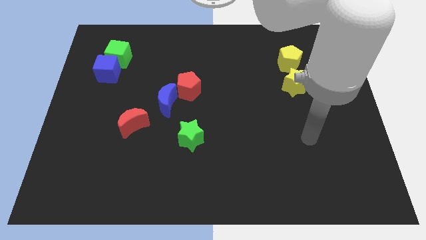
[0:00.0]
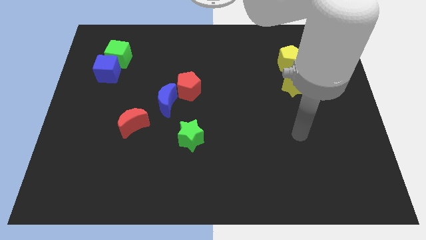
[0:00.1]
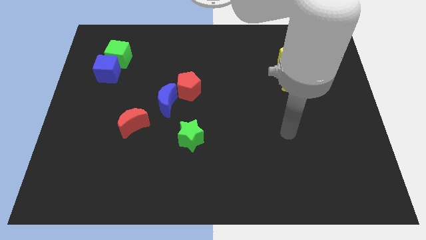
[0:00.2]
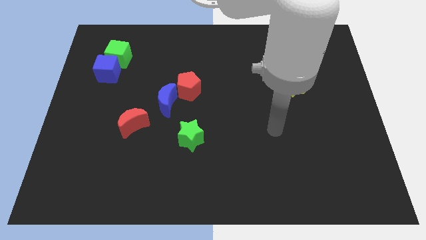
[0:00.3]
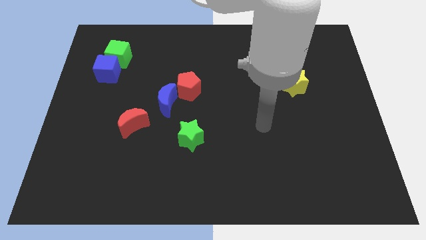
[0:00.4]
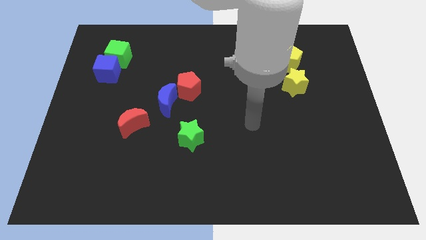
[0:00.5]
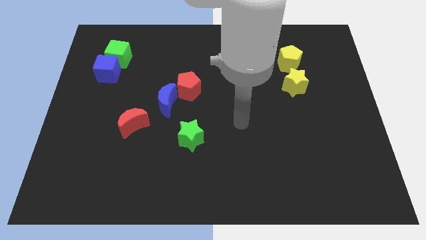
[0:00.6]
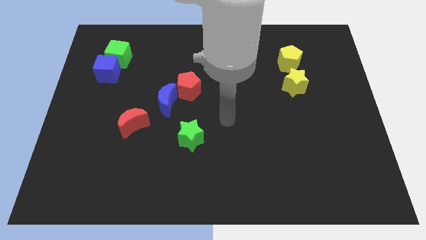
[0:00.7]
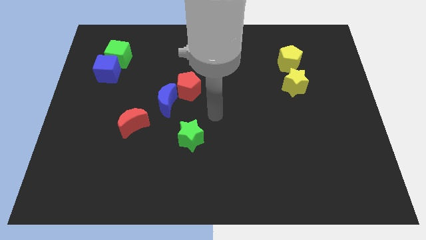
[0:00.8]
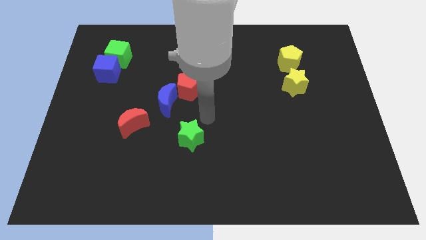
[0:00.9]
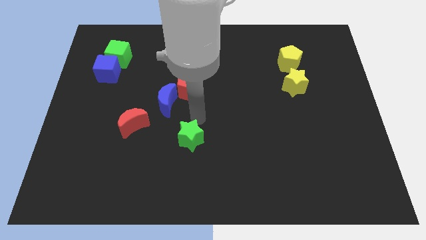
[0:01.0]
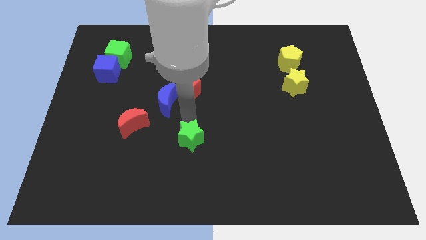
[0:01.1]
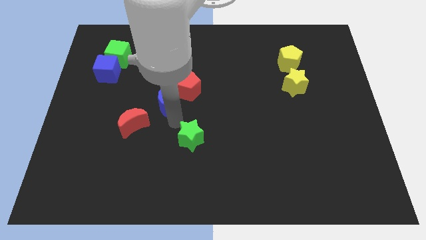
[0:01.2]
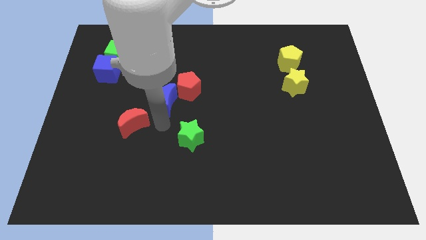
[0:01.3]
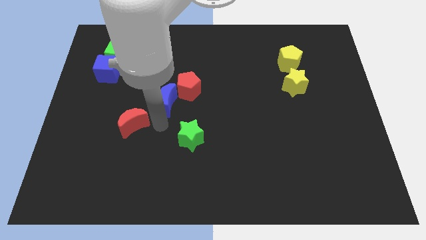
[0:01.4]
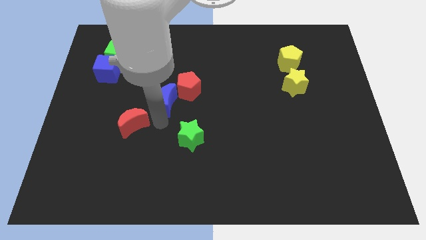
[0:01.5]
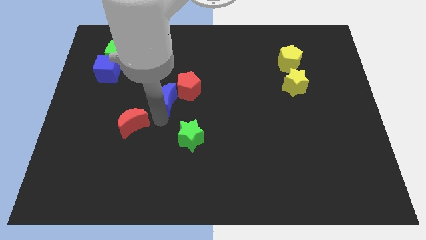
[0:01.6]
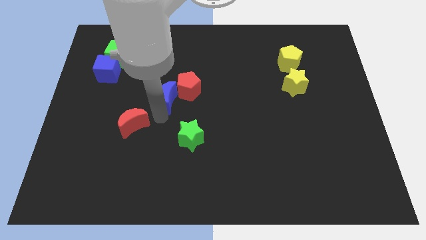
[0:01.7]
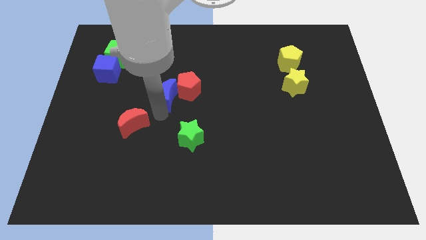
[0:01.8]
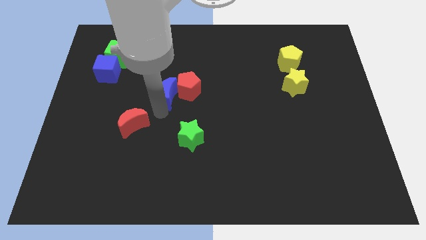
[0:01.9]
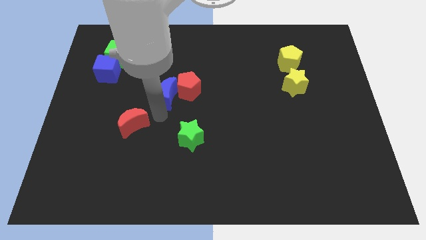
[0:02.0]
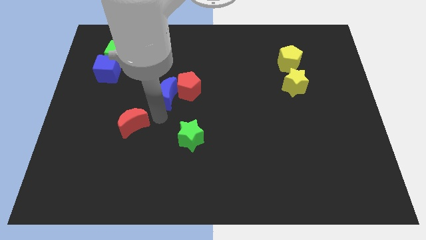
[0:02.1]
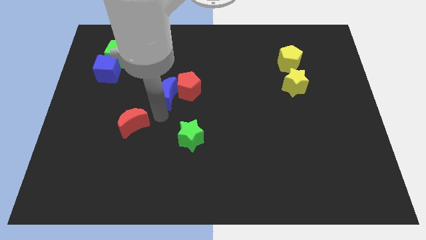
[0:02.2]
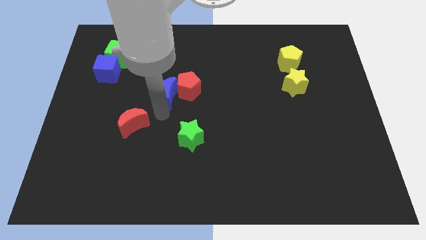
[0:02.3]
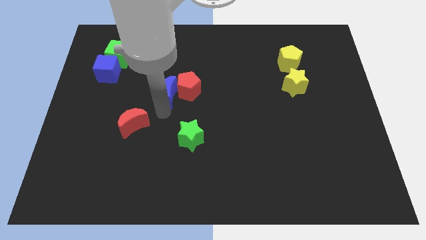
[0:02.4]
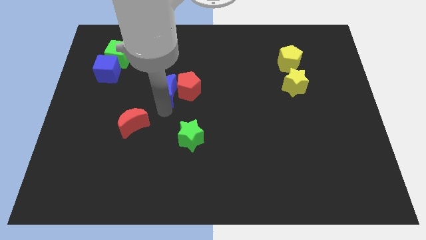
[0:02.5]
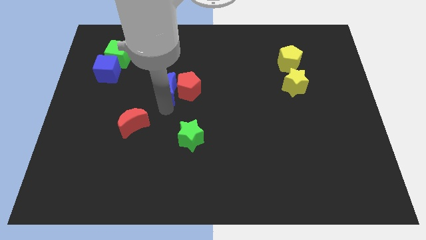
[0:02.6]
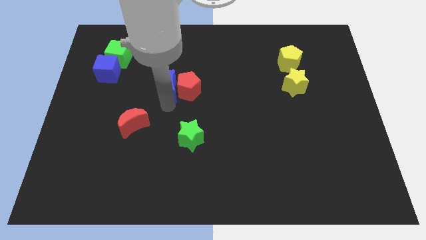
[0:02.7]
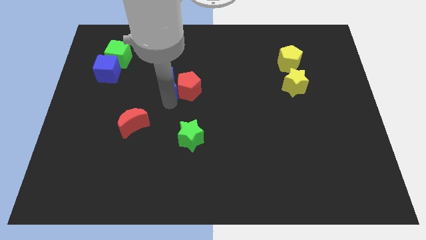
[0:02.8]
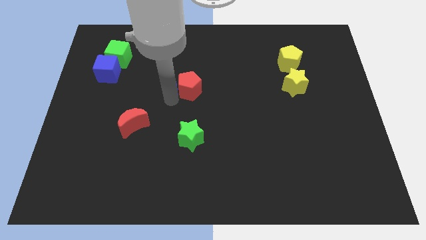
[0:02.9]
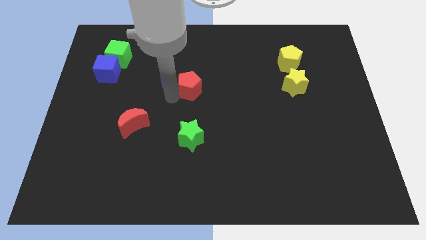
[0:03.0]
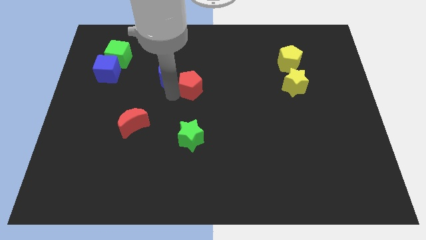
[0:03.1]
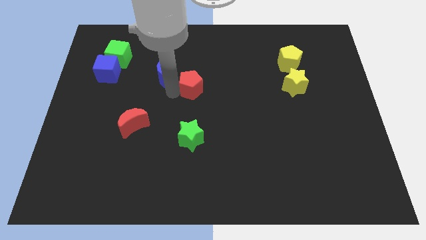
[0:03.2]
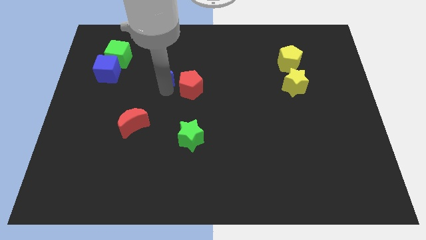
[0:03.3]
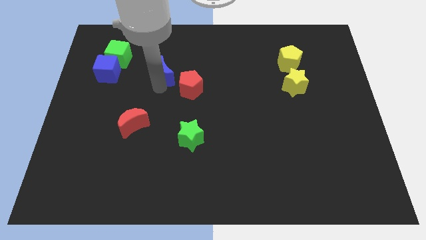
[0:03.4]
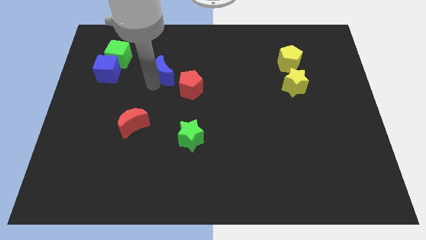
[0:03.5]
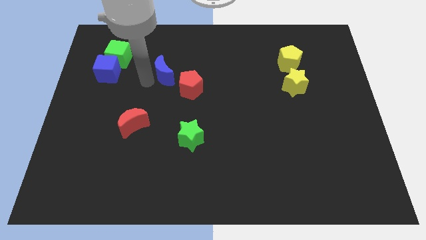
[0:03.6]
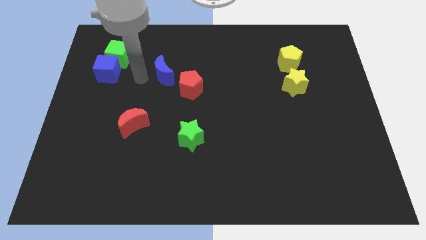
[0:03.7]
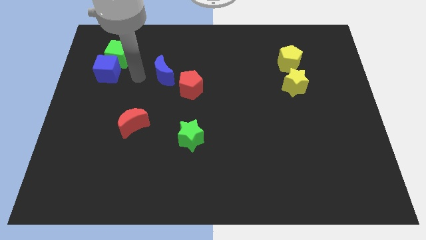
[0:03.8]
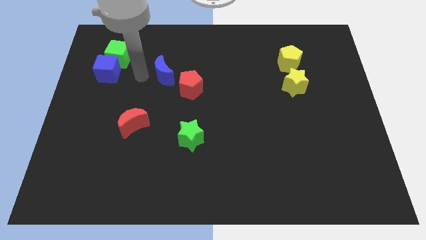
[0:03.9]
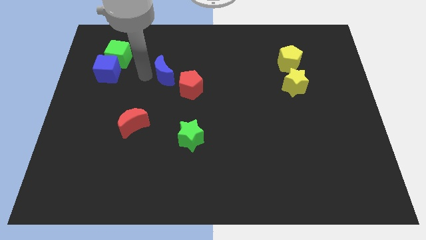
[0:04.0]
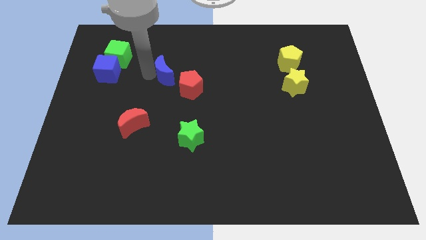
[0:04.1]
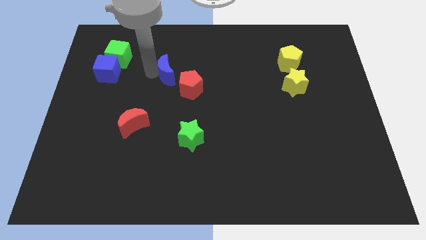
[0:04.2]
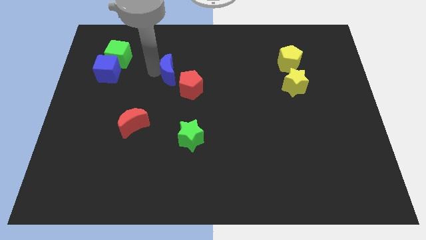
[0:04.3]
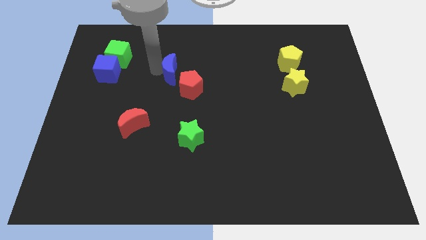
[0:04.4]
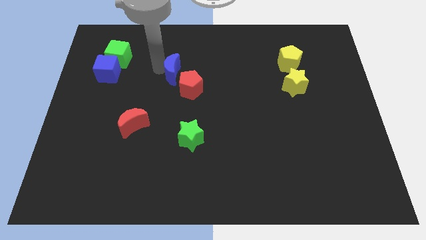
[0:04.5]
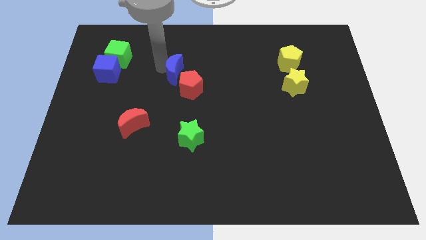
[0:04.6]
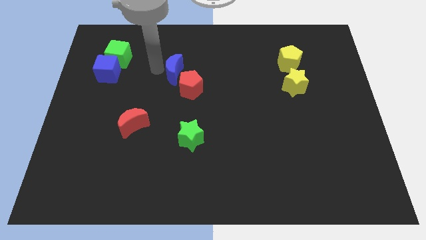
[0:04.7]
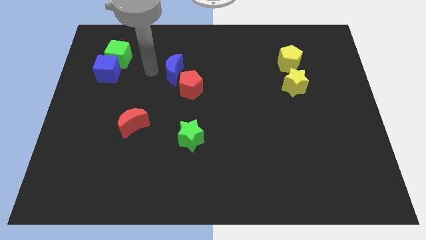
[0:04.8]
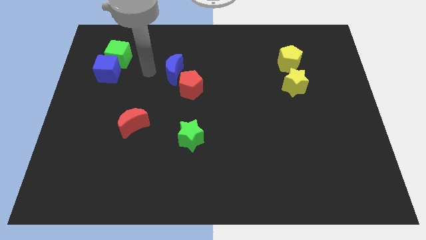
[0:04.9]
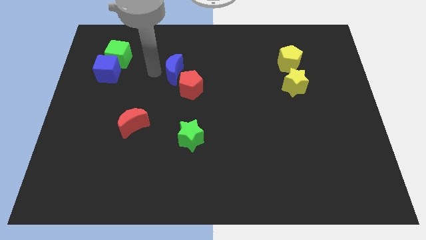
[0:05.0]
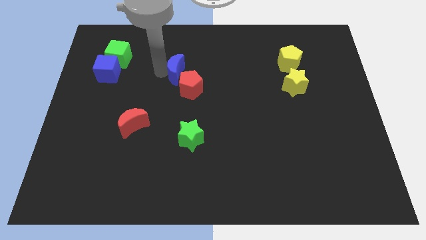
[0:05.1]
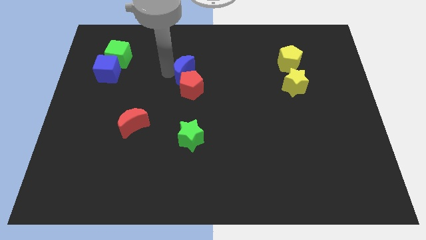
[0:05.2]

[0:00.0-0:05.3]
slightly push the blue moon up and to the right diagonally

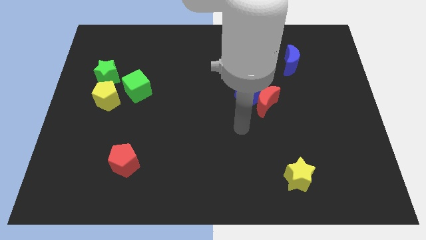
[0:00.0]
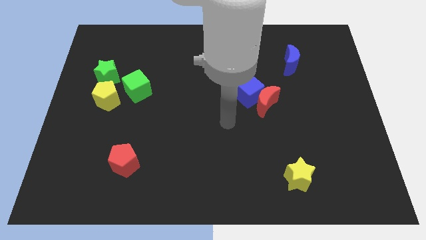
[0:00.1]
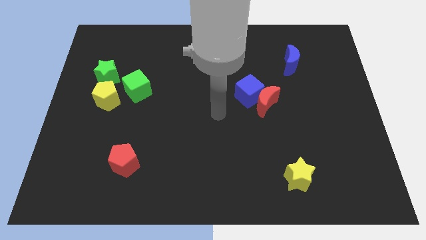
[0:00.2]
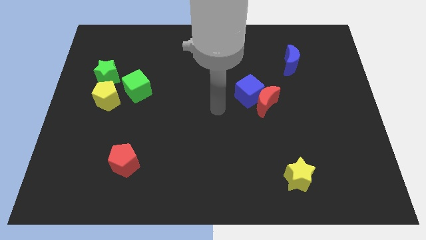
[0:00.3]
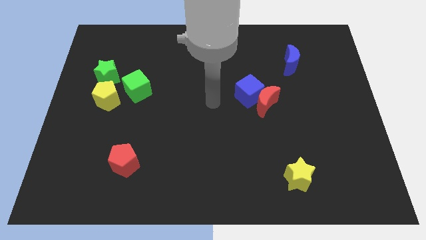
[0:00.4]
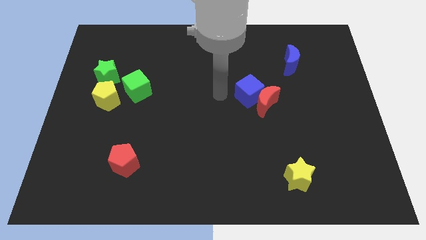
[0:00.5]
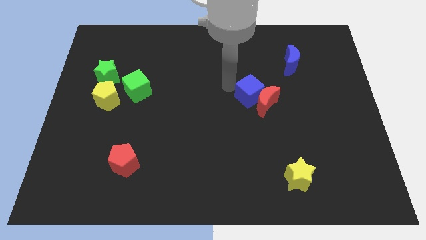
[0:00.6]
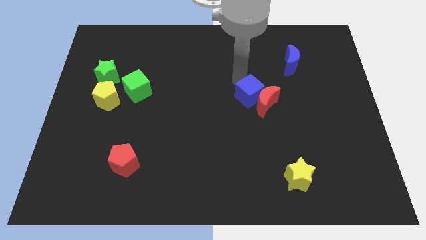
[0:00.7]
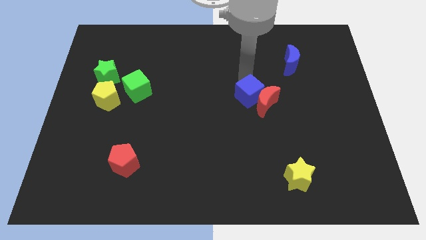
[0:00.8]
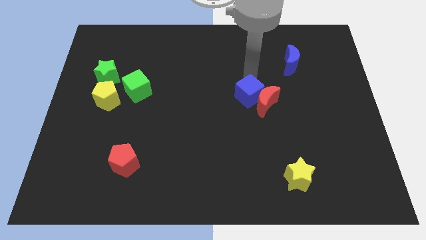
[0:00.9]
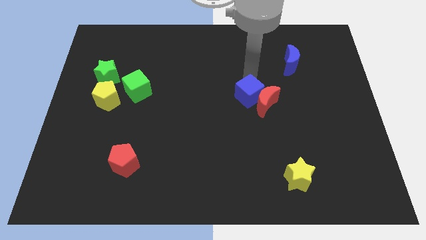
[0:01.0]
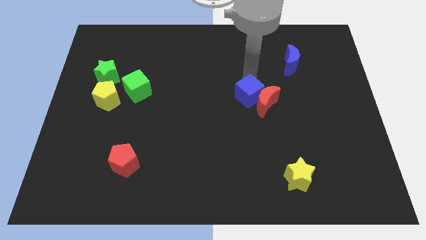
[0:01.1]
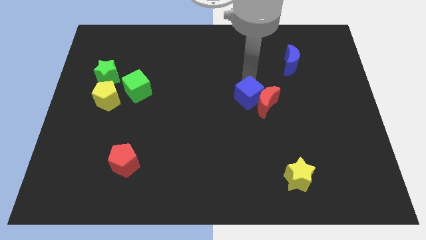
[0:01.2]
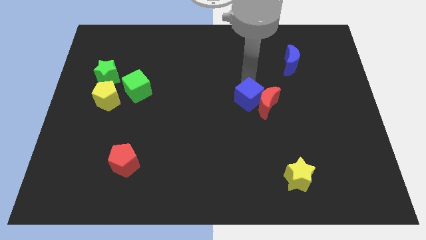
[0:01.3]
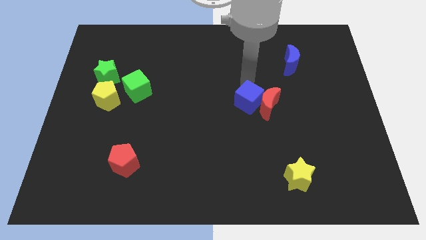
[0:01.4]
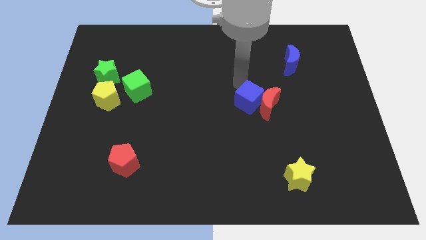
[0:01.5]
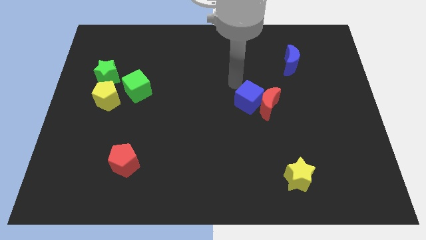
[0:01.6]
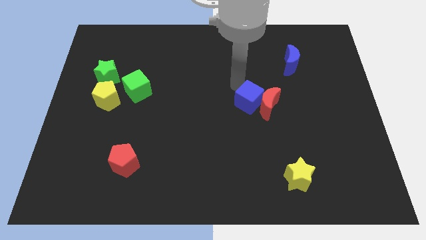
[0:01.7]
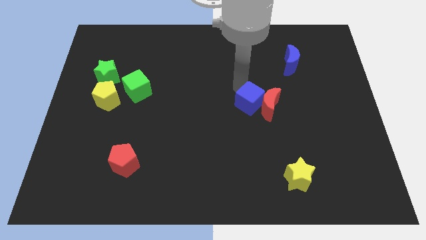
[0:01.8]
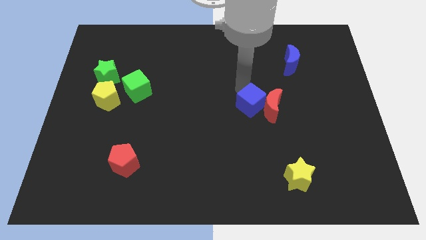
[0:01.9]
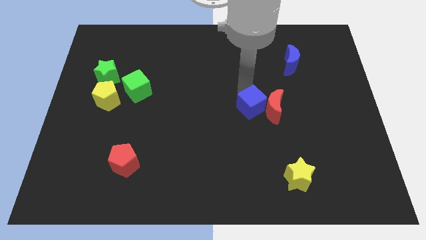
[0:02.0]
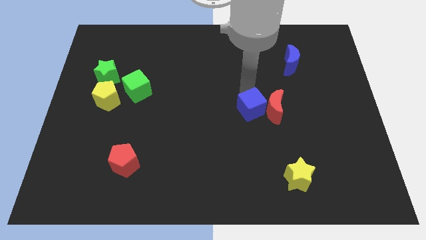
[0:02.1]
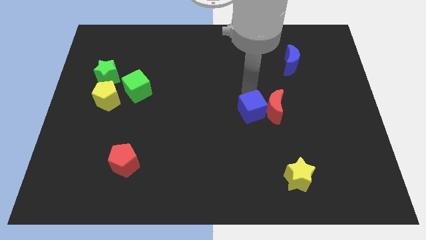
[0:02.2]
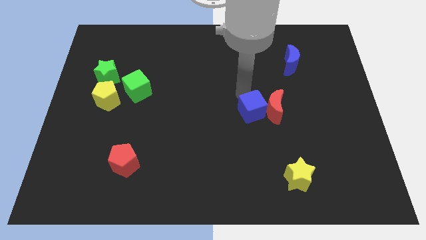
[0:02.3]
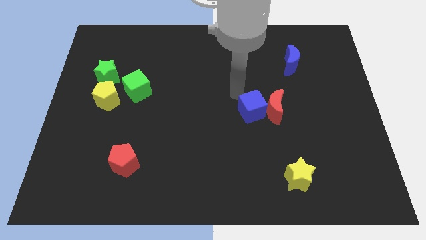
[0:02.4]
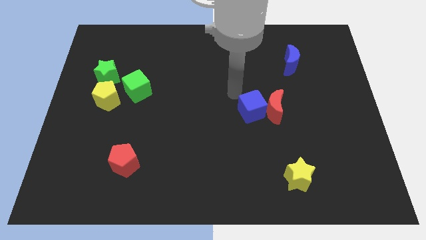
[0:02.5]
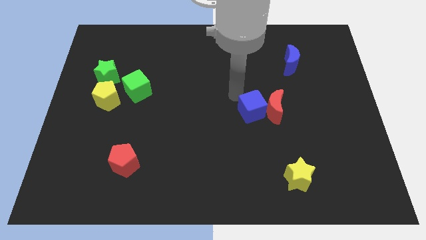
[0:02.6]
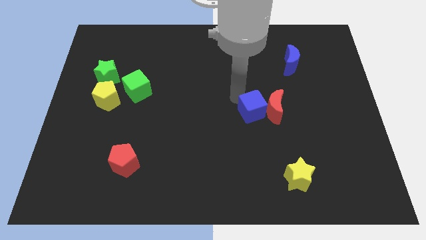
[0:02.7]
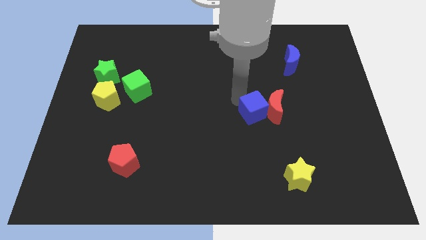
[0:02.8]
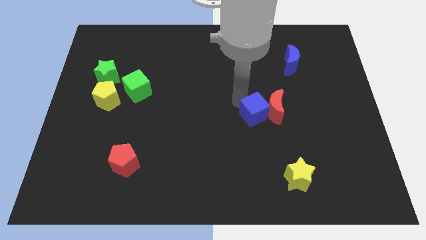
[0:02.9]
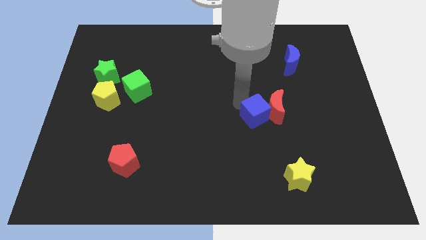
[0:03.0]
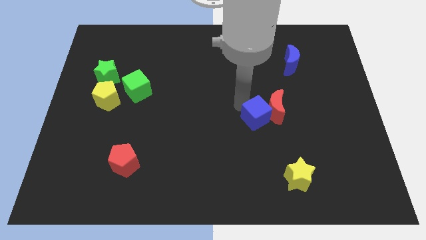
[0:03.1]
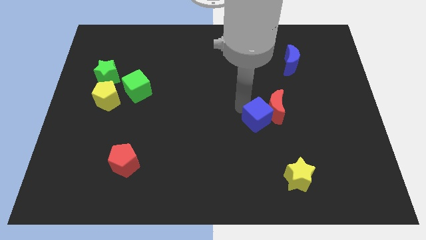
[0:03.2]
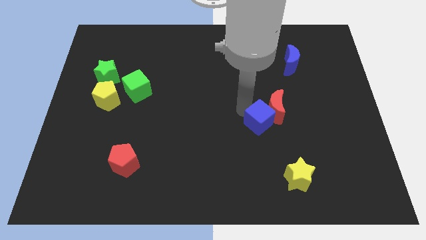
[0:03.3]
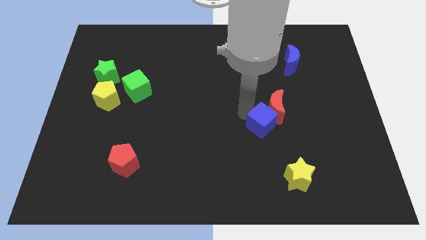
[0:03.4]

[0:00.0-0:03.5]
move the blue cube a bit down and then to the right
